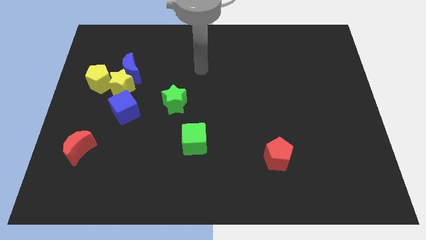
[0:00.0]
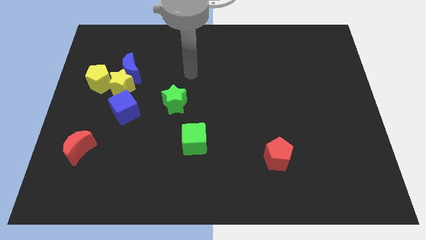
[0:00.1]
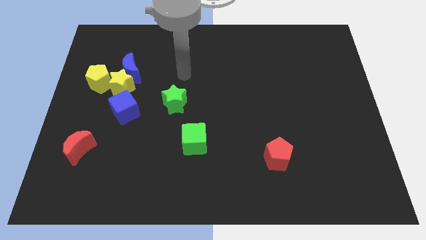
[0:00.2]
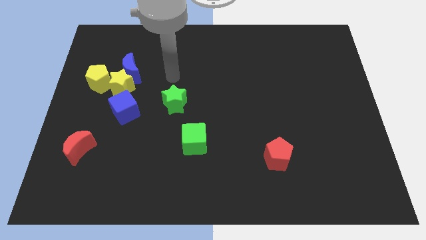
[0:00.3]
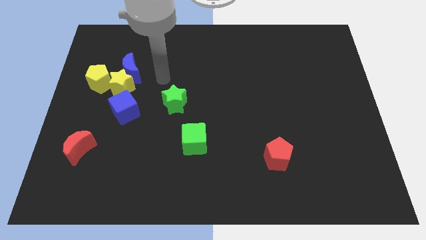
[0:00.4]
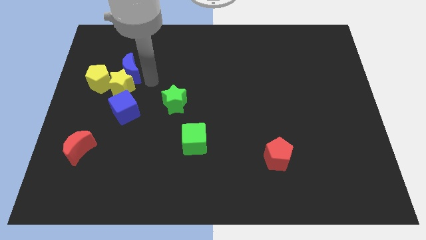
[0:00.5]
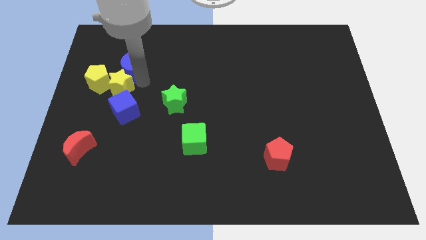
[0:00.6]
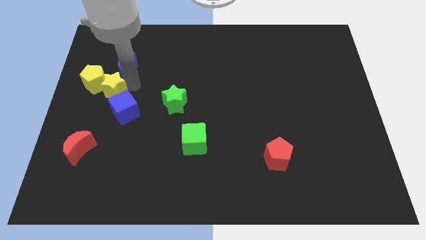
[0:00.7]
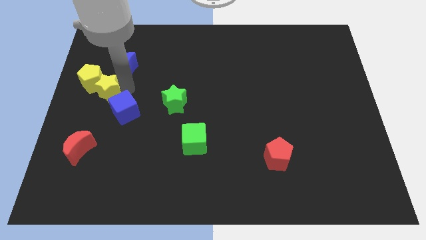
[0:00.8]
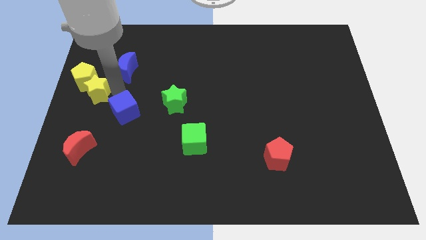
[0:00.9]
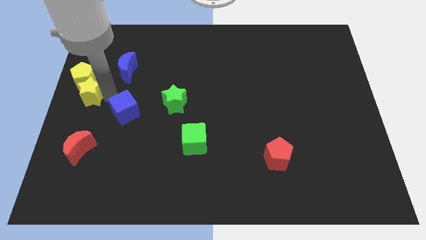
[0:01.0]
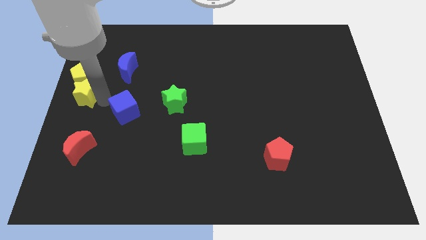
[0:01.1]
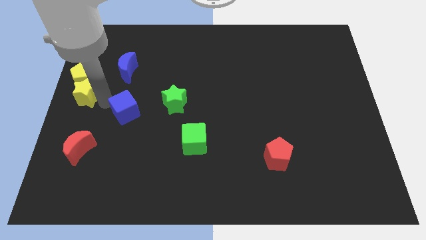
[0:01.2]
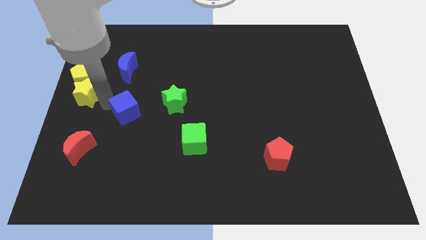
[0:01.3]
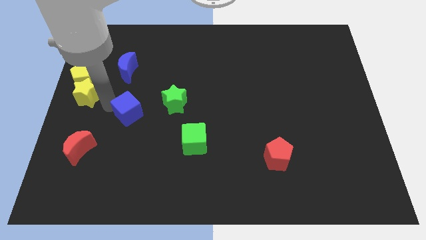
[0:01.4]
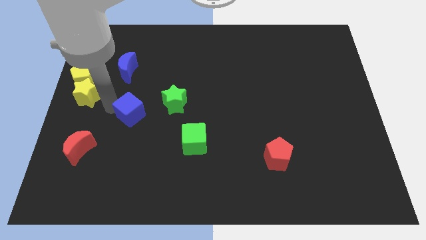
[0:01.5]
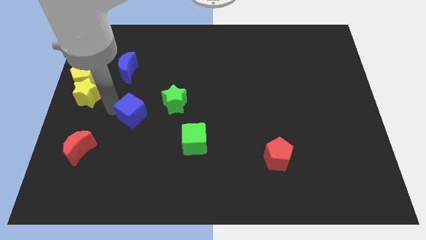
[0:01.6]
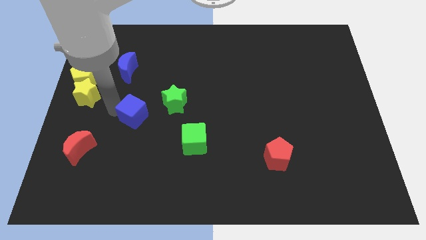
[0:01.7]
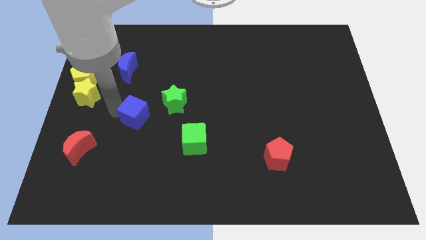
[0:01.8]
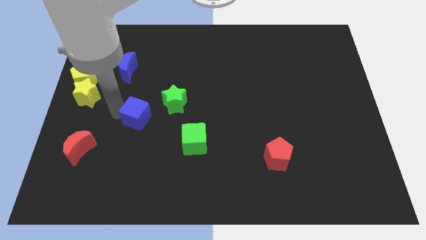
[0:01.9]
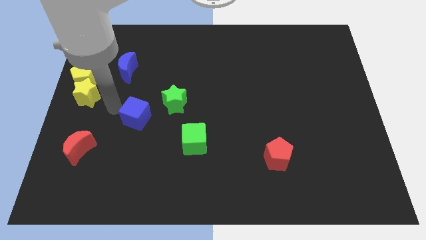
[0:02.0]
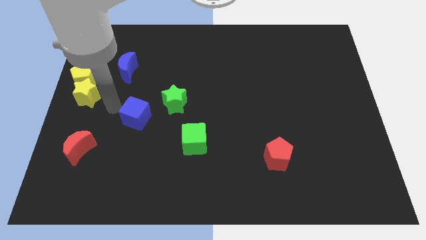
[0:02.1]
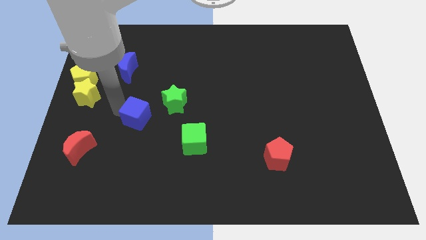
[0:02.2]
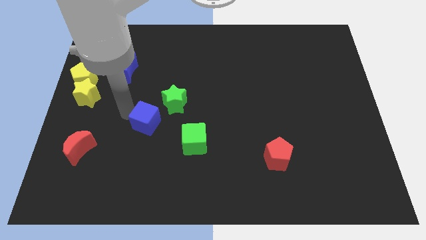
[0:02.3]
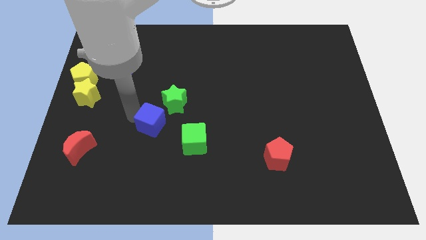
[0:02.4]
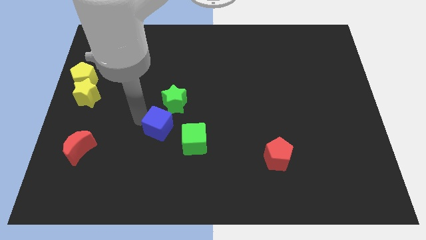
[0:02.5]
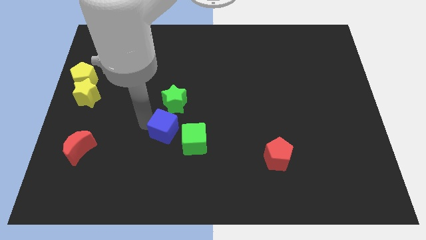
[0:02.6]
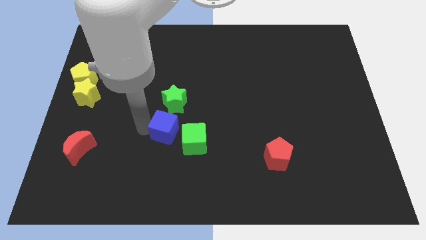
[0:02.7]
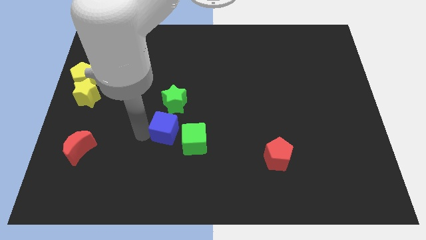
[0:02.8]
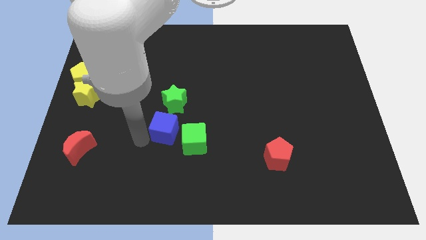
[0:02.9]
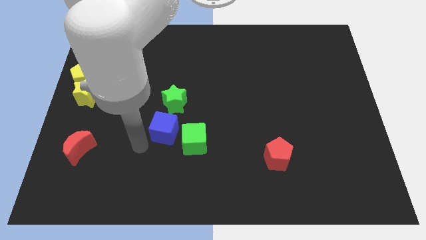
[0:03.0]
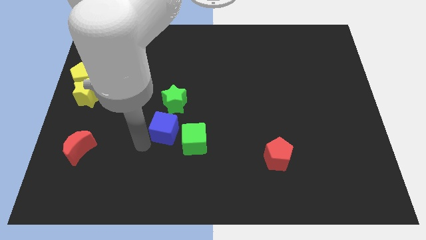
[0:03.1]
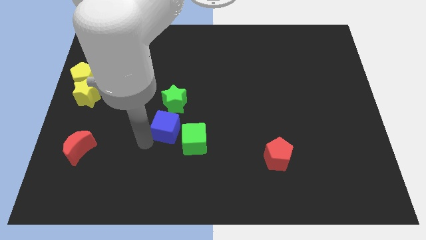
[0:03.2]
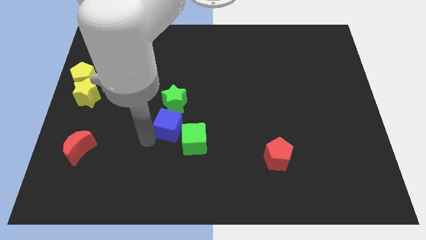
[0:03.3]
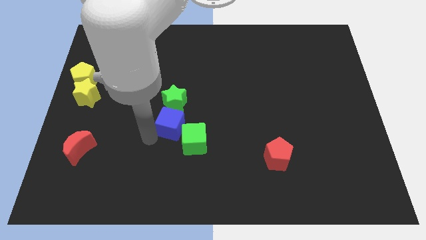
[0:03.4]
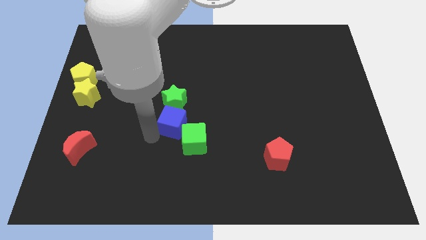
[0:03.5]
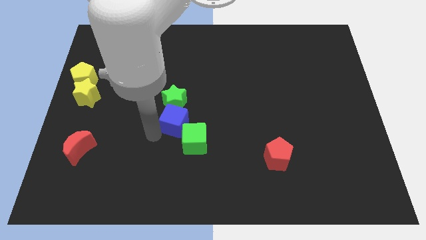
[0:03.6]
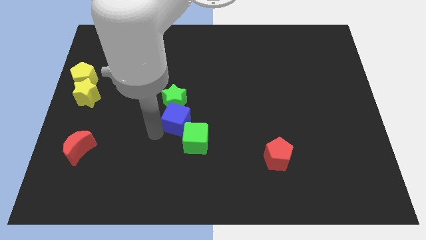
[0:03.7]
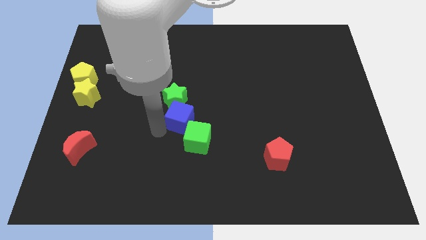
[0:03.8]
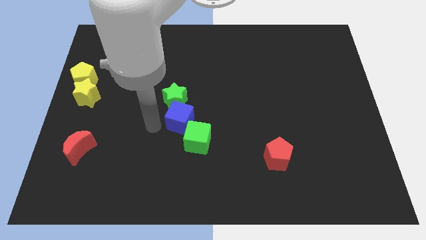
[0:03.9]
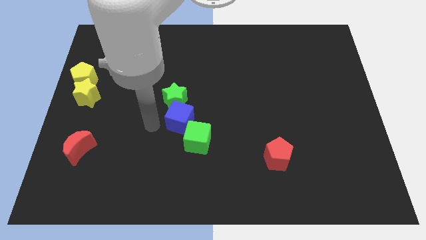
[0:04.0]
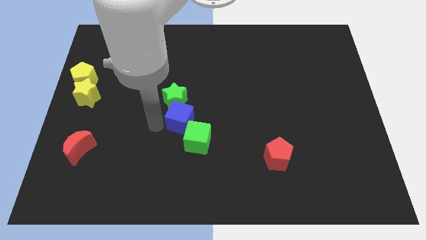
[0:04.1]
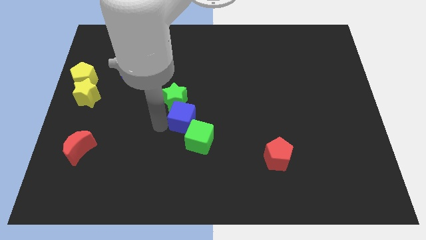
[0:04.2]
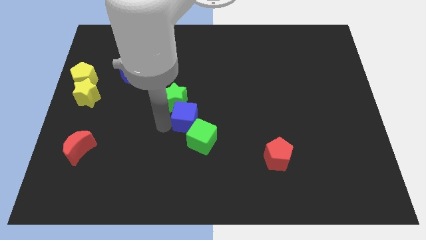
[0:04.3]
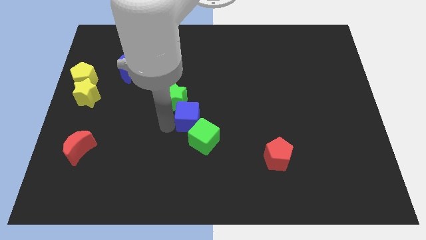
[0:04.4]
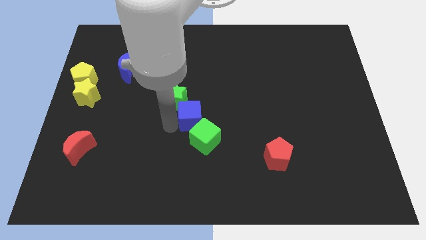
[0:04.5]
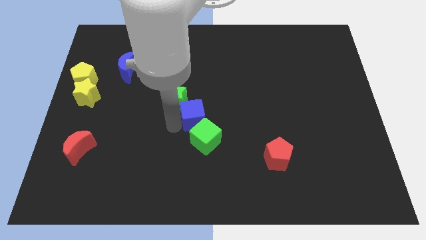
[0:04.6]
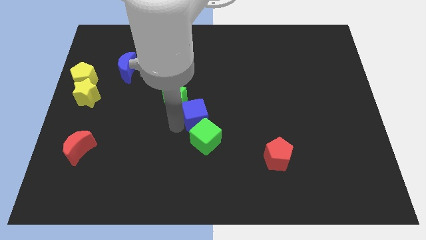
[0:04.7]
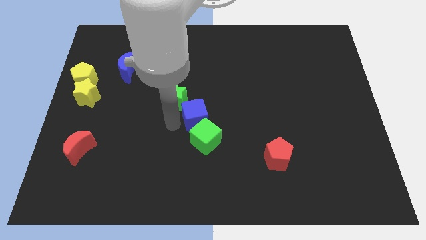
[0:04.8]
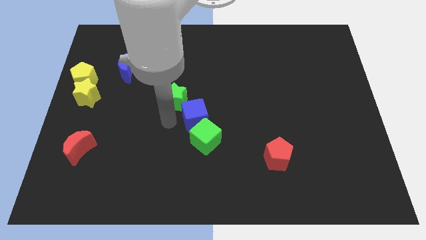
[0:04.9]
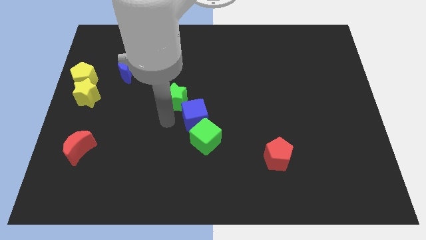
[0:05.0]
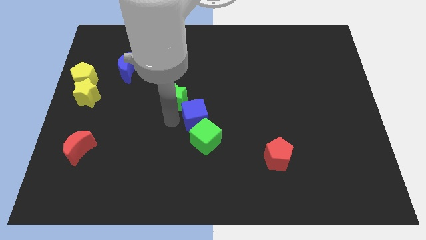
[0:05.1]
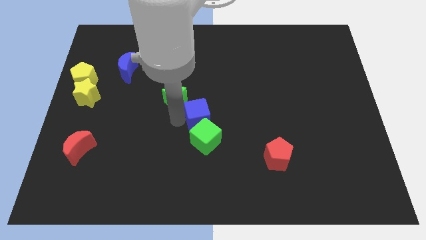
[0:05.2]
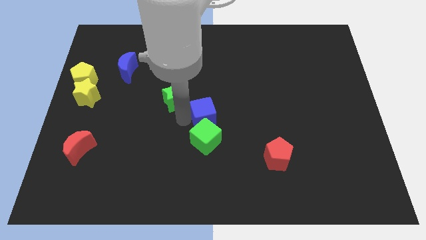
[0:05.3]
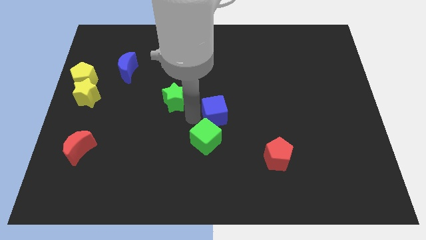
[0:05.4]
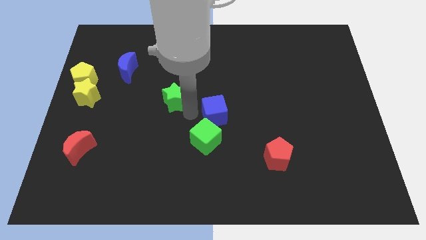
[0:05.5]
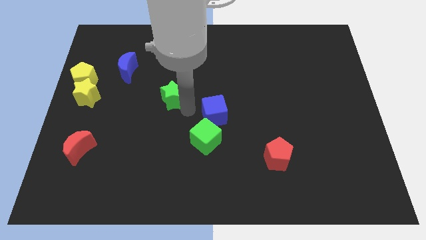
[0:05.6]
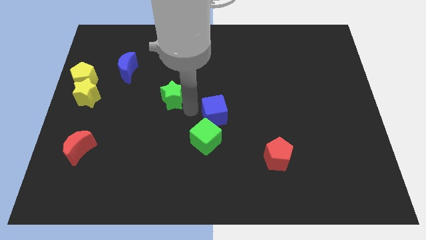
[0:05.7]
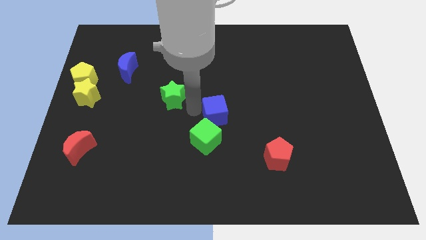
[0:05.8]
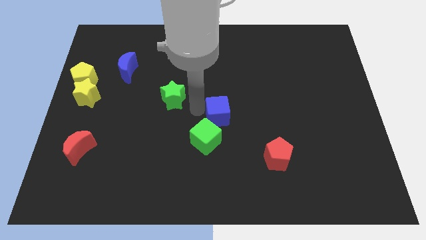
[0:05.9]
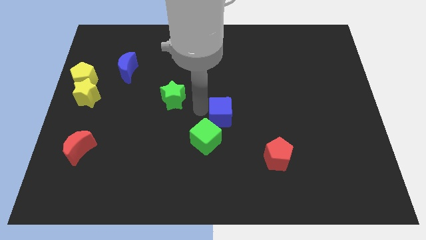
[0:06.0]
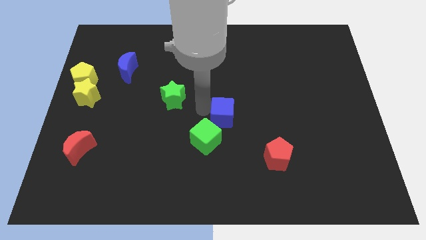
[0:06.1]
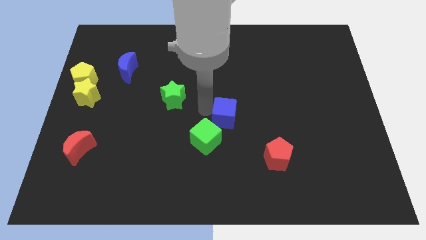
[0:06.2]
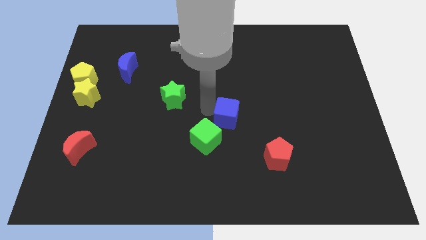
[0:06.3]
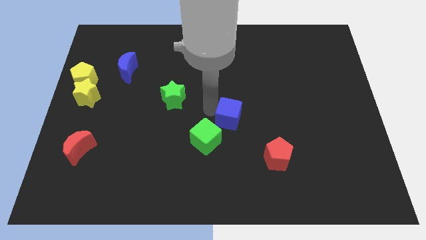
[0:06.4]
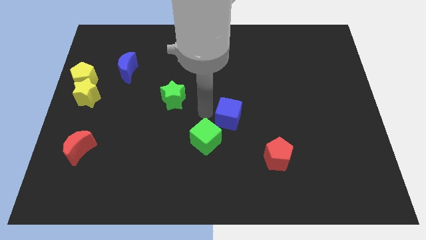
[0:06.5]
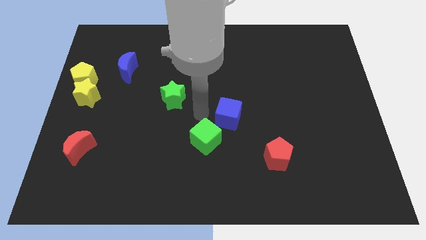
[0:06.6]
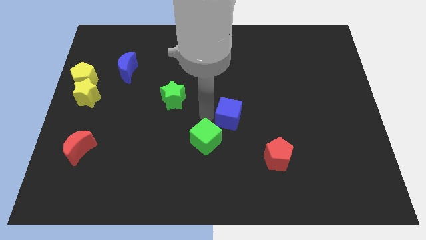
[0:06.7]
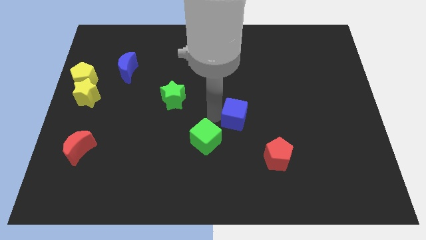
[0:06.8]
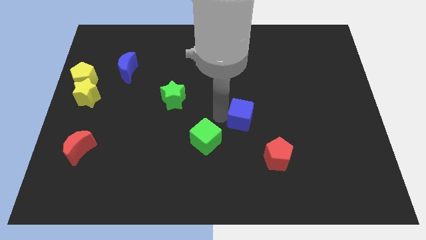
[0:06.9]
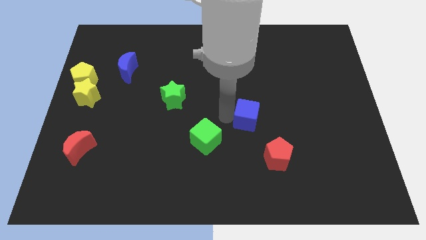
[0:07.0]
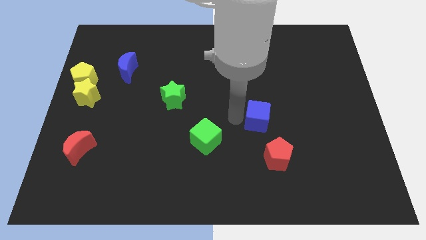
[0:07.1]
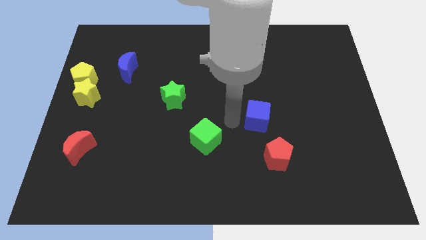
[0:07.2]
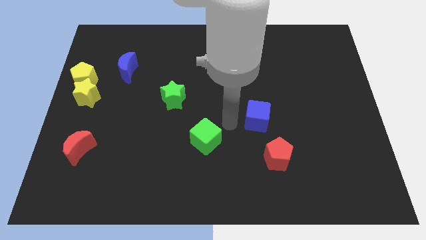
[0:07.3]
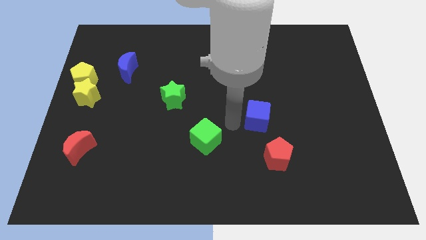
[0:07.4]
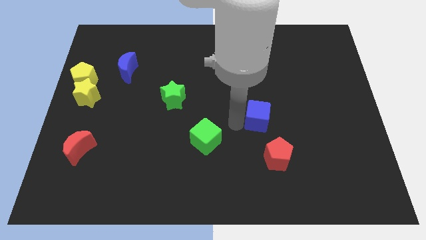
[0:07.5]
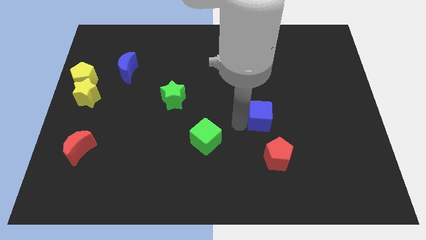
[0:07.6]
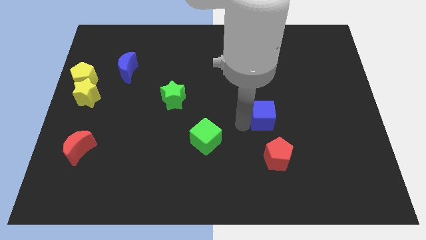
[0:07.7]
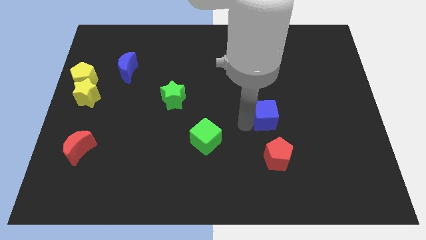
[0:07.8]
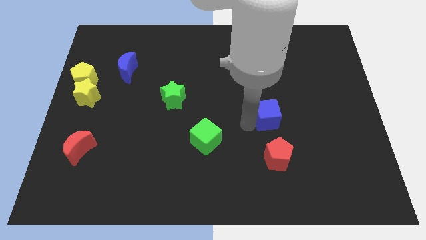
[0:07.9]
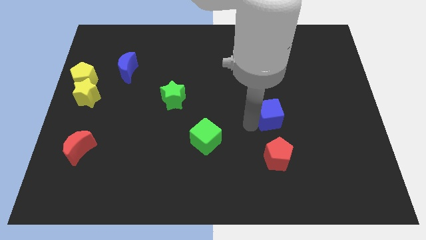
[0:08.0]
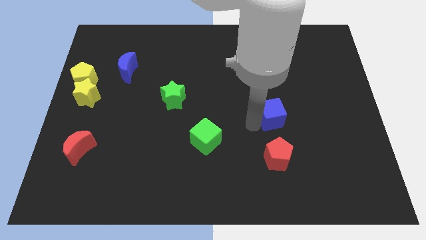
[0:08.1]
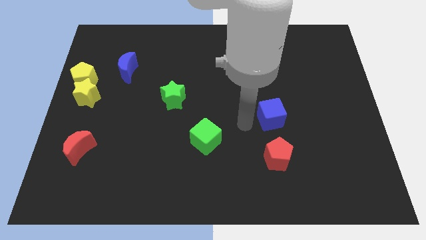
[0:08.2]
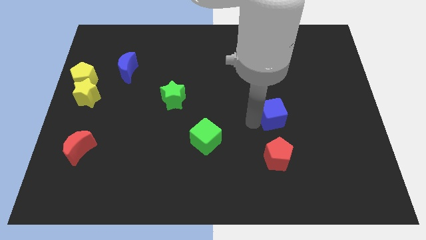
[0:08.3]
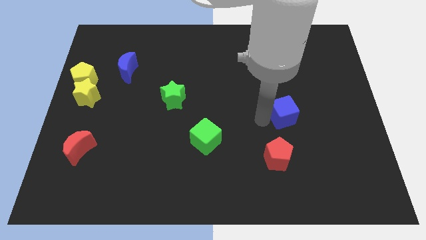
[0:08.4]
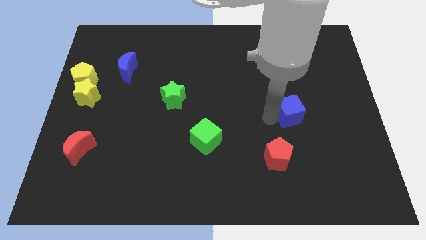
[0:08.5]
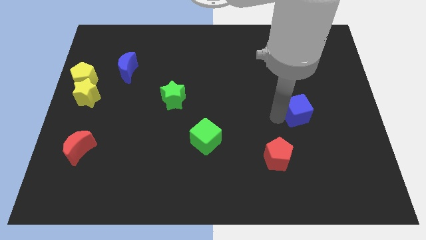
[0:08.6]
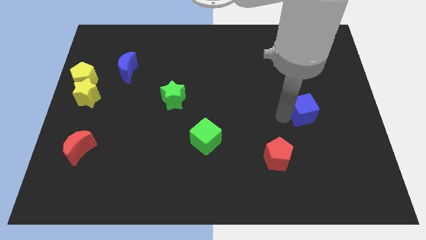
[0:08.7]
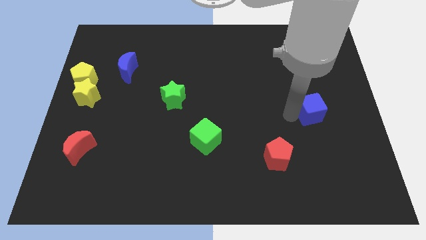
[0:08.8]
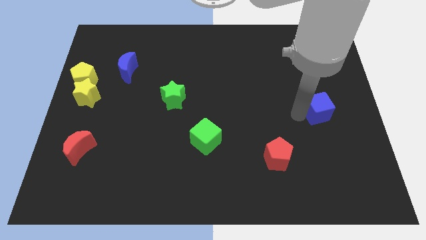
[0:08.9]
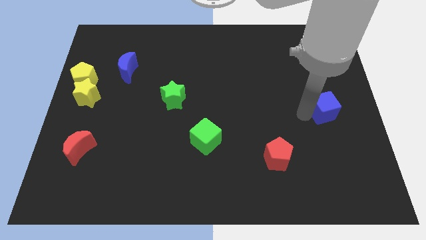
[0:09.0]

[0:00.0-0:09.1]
move the blue cube to the center right
